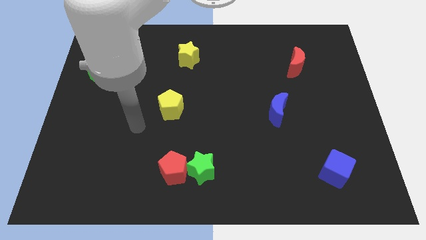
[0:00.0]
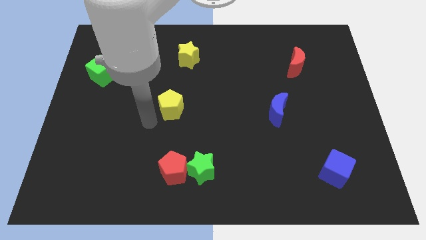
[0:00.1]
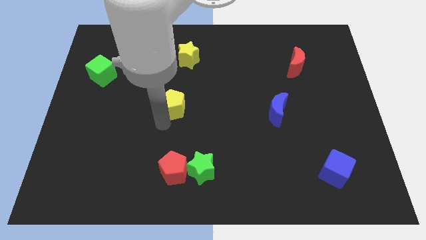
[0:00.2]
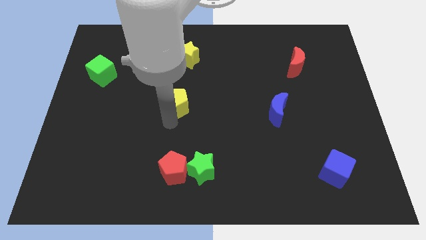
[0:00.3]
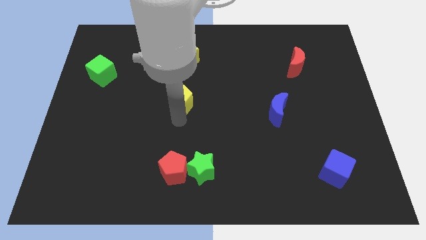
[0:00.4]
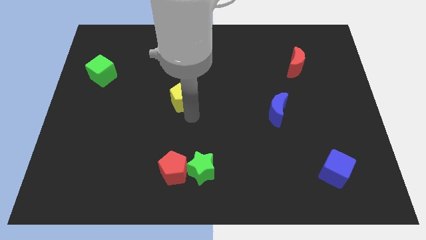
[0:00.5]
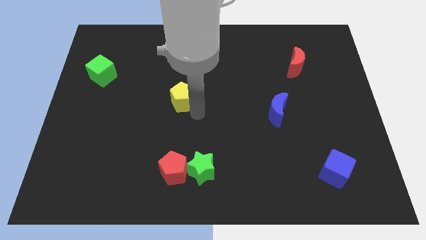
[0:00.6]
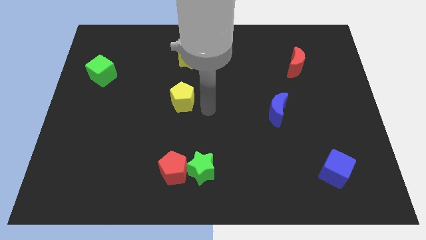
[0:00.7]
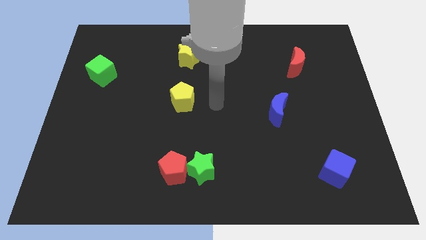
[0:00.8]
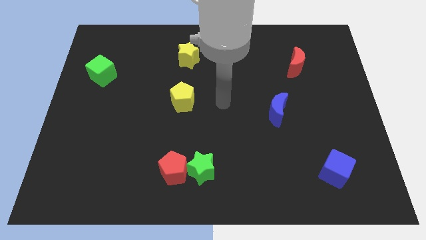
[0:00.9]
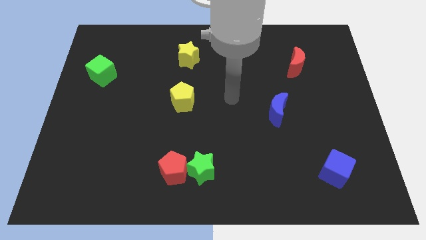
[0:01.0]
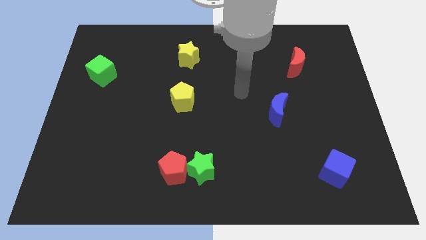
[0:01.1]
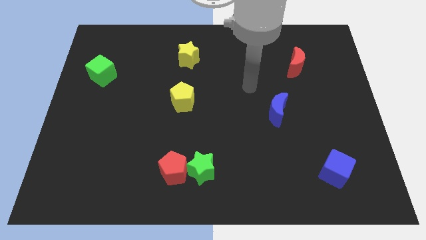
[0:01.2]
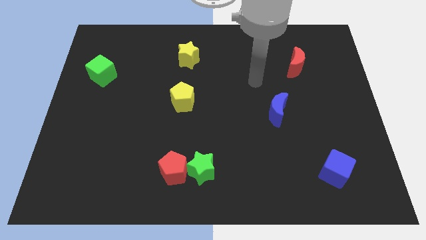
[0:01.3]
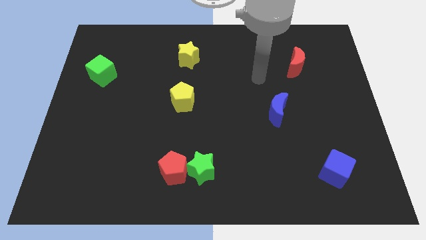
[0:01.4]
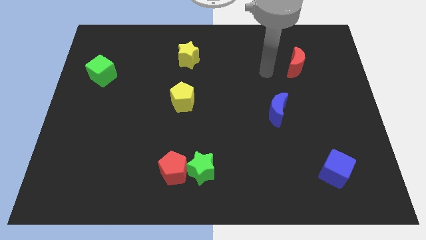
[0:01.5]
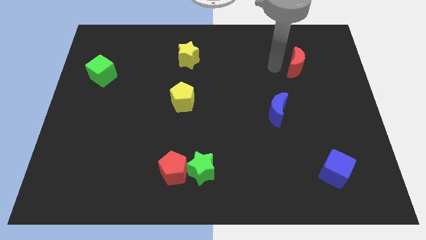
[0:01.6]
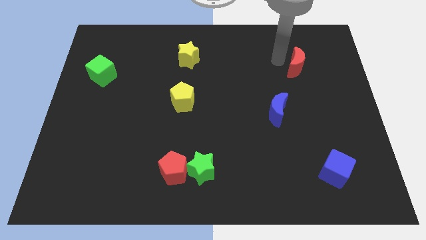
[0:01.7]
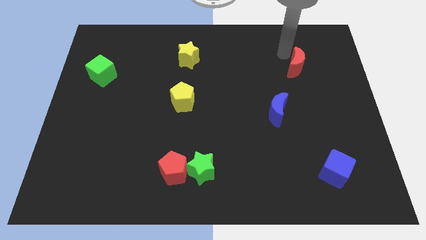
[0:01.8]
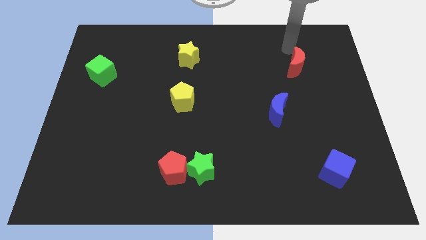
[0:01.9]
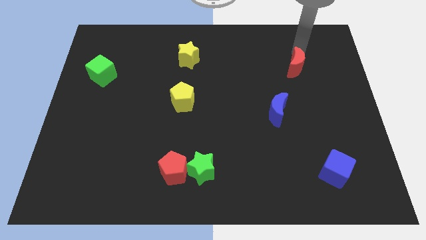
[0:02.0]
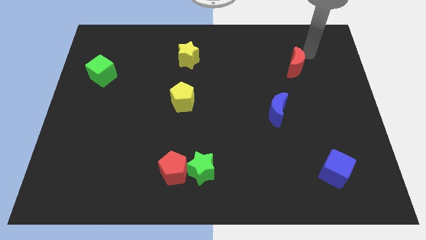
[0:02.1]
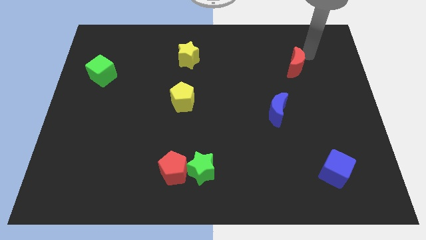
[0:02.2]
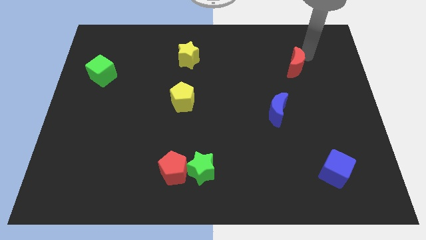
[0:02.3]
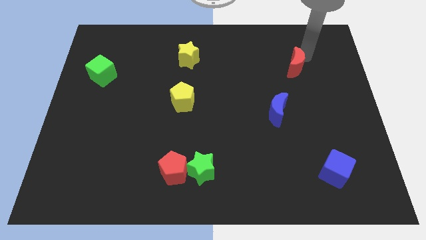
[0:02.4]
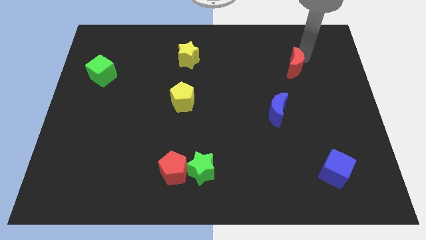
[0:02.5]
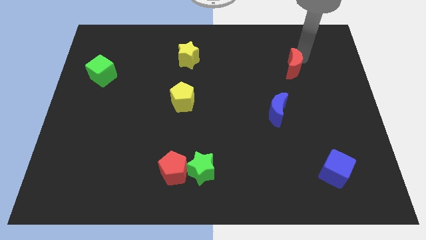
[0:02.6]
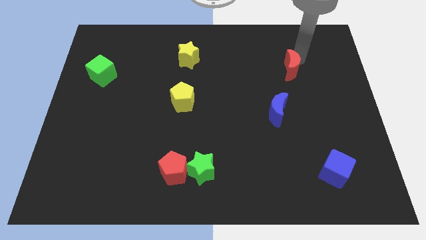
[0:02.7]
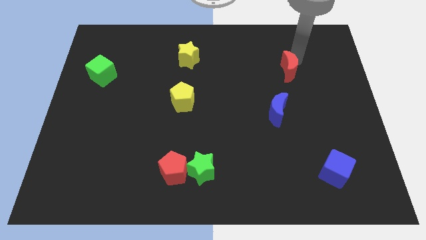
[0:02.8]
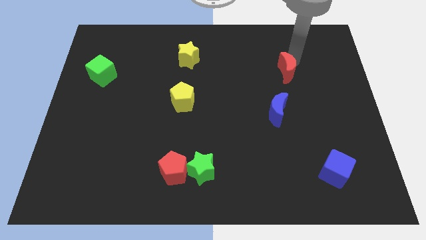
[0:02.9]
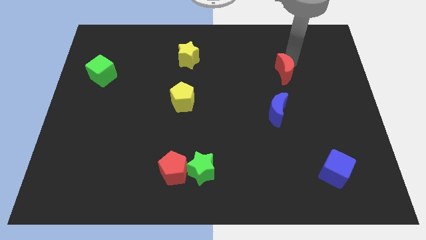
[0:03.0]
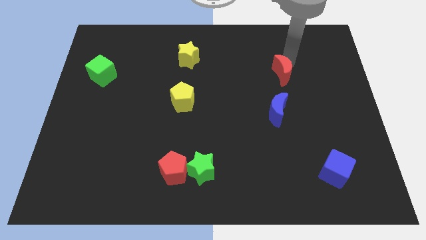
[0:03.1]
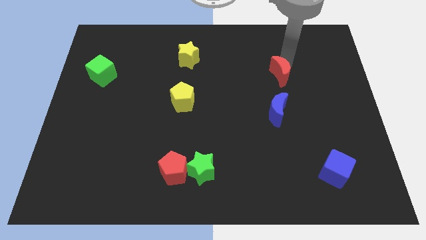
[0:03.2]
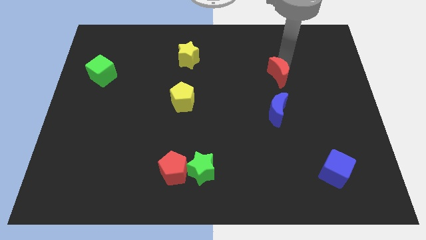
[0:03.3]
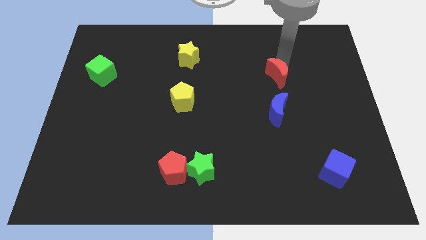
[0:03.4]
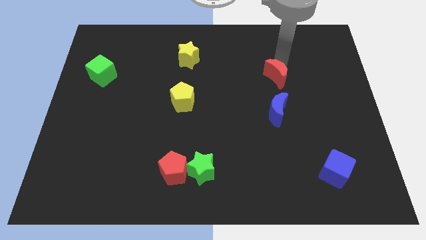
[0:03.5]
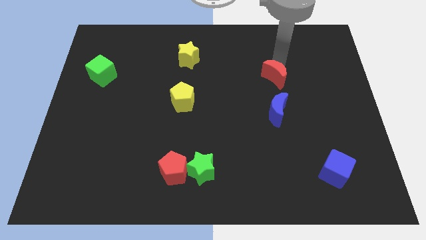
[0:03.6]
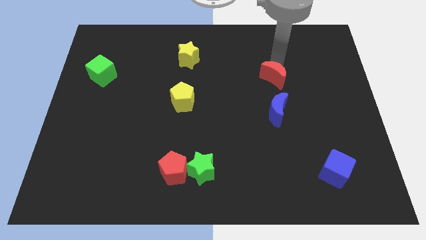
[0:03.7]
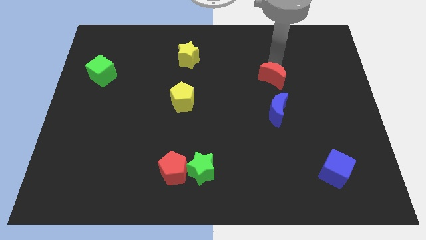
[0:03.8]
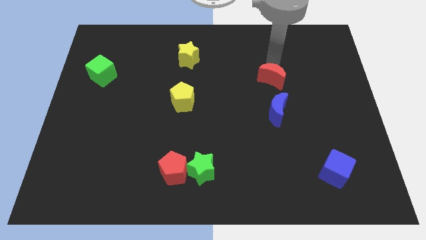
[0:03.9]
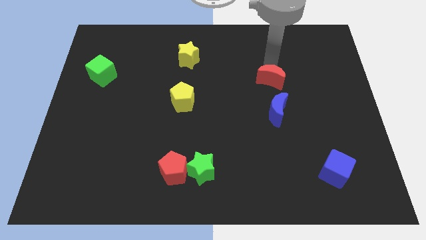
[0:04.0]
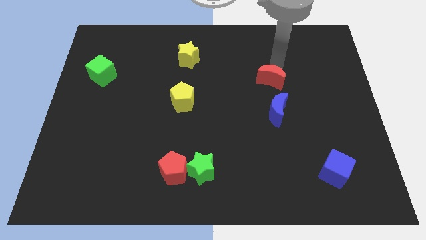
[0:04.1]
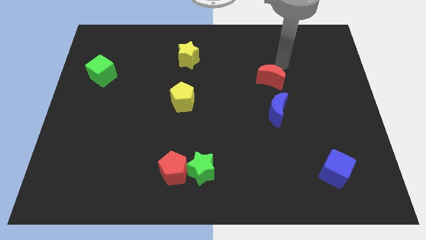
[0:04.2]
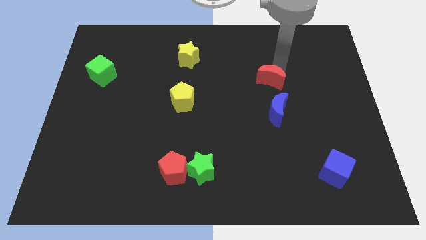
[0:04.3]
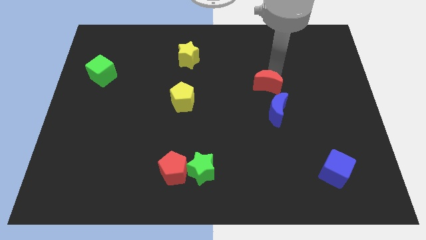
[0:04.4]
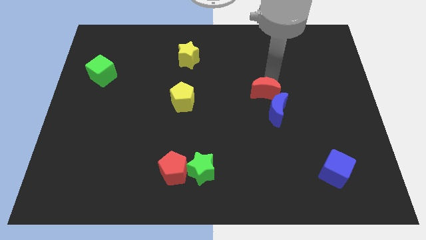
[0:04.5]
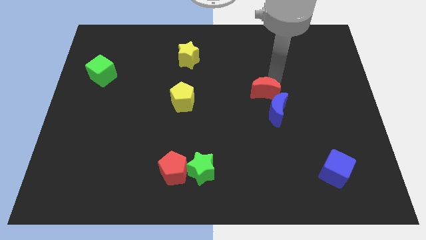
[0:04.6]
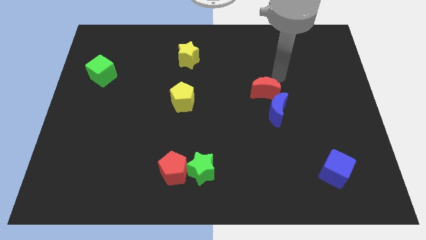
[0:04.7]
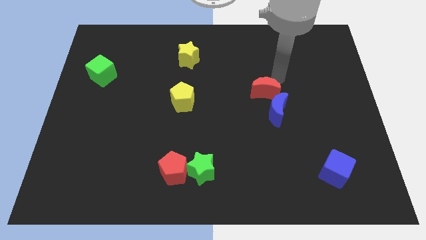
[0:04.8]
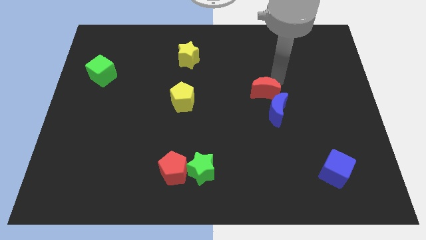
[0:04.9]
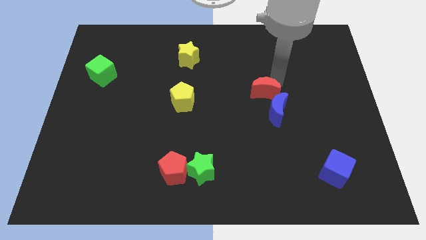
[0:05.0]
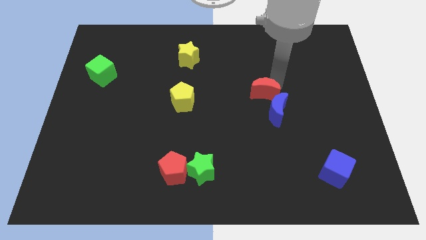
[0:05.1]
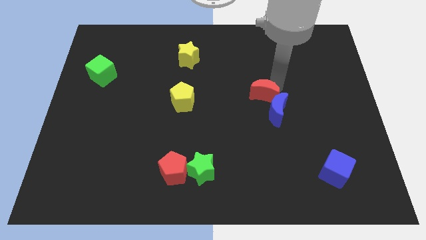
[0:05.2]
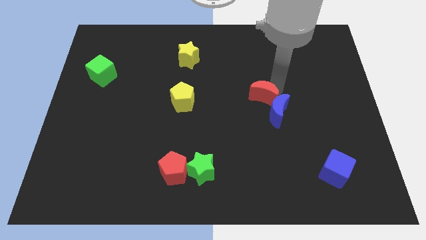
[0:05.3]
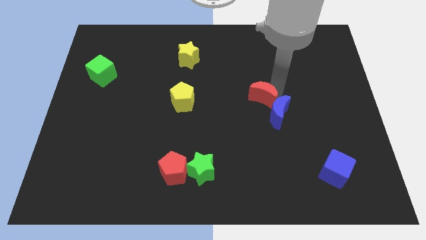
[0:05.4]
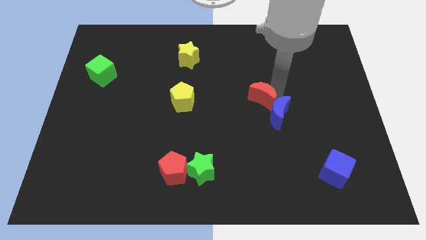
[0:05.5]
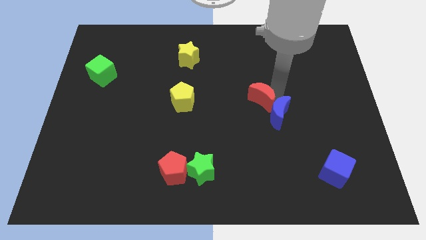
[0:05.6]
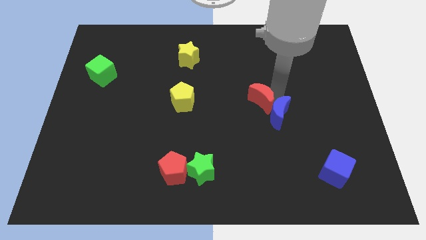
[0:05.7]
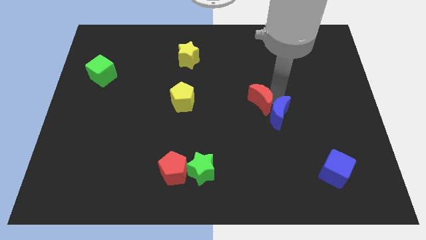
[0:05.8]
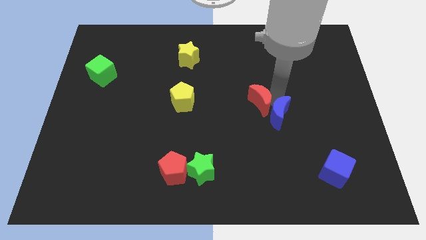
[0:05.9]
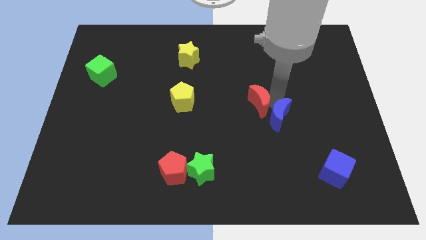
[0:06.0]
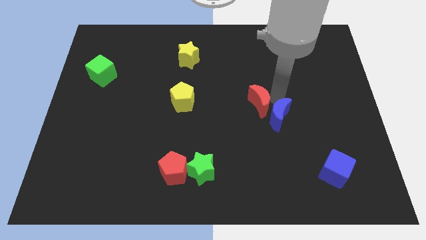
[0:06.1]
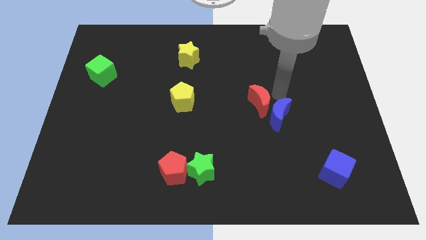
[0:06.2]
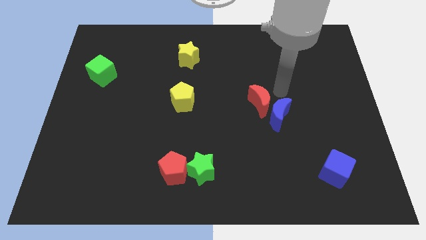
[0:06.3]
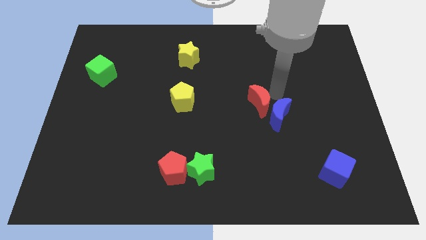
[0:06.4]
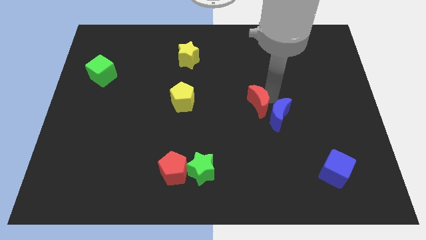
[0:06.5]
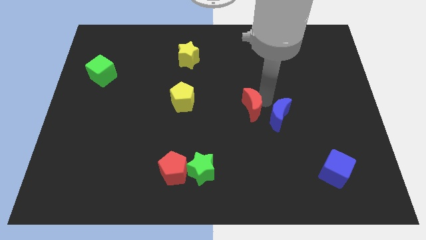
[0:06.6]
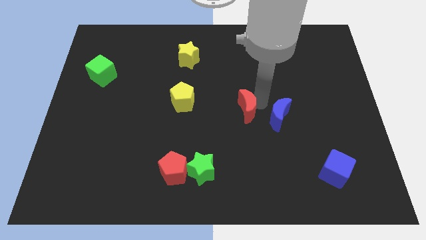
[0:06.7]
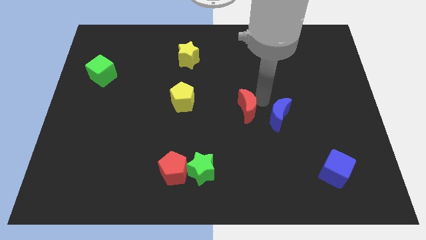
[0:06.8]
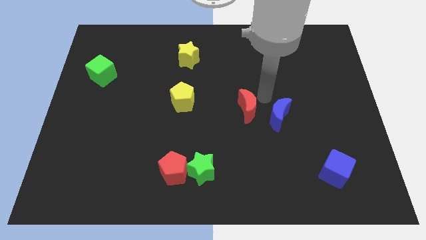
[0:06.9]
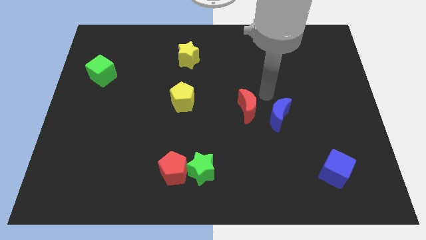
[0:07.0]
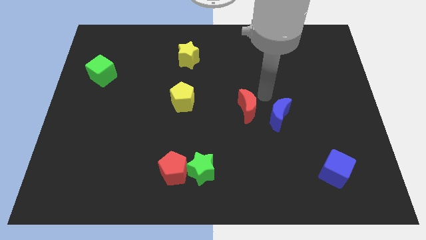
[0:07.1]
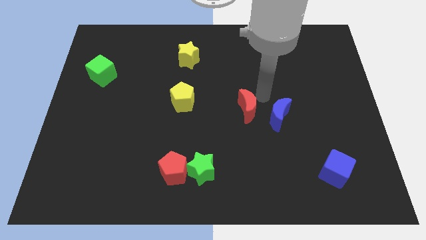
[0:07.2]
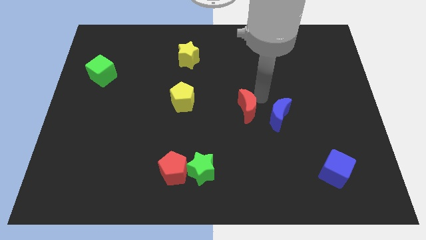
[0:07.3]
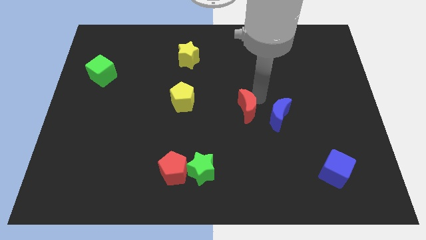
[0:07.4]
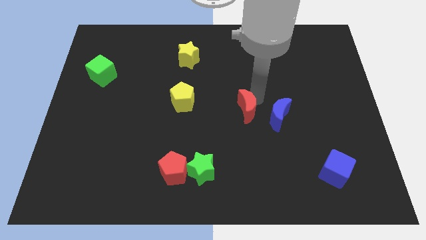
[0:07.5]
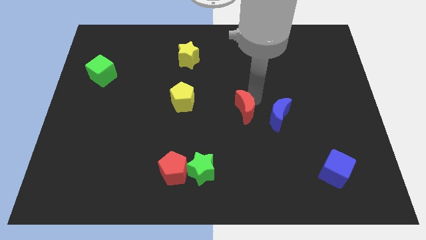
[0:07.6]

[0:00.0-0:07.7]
slide the red moon down and left diagonally

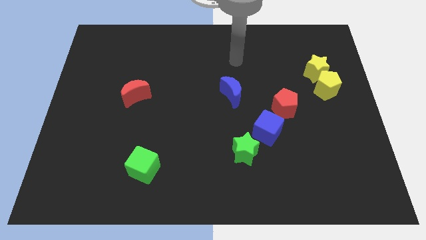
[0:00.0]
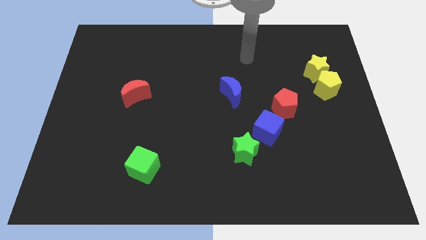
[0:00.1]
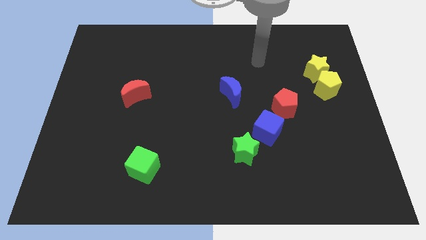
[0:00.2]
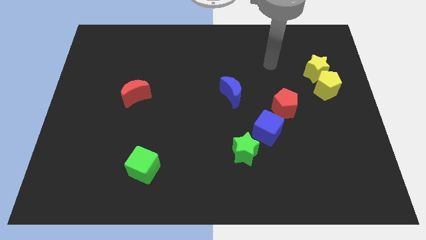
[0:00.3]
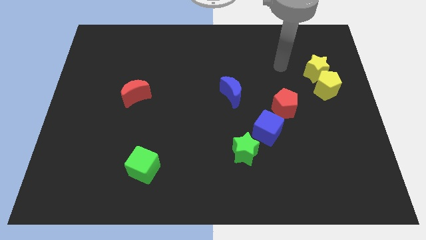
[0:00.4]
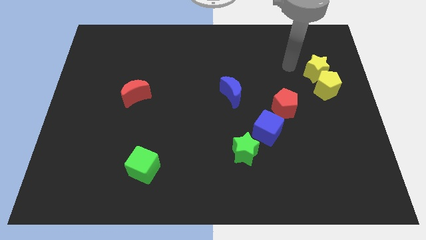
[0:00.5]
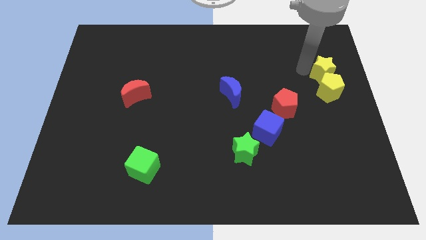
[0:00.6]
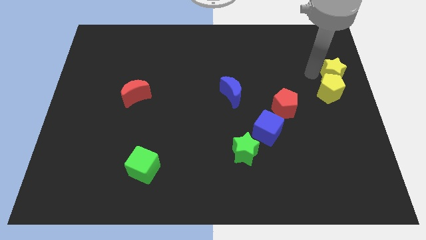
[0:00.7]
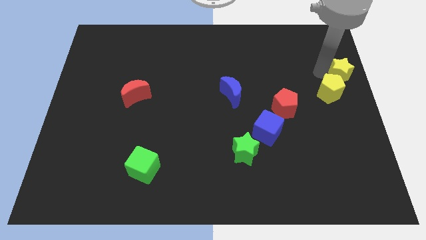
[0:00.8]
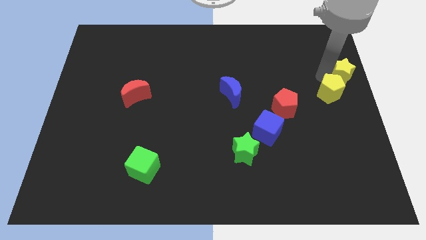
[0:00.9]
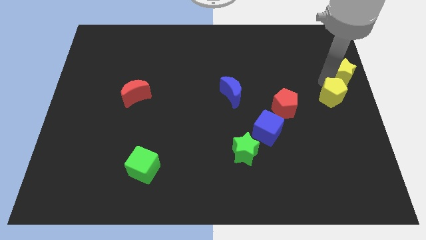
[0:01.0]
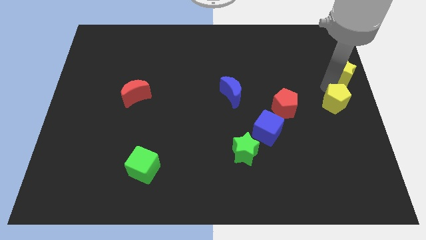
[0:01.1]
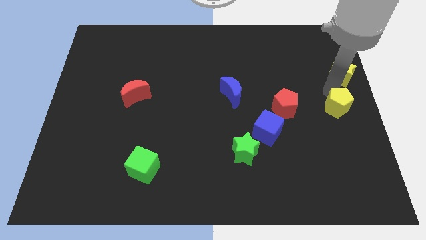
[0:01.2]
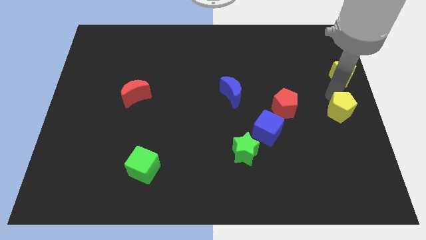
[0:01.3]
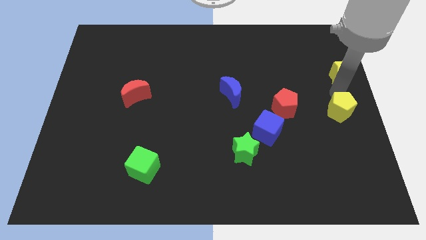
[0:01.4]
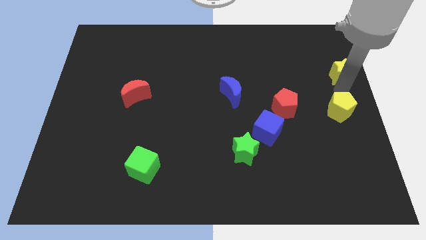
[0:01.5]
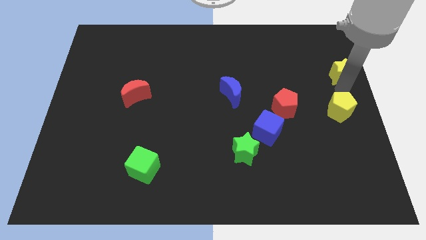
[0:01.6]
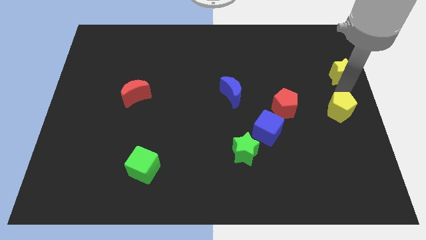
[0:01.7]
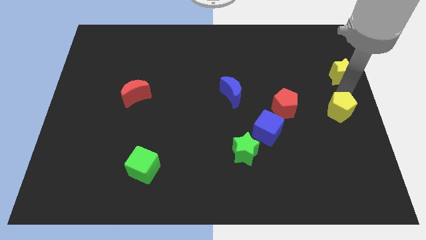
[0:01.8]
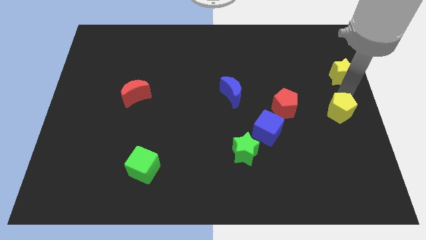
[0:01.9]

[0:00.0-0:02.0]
move the yellow pentagon downwards a little
